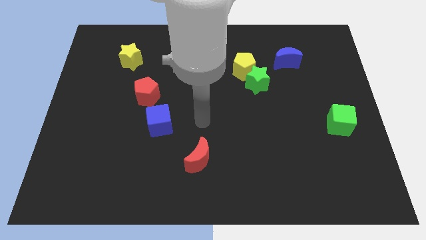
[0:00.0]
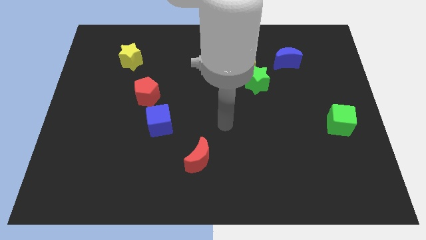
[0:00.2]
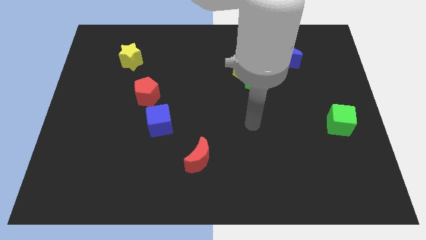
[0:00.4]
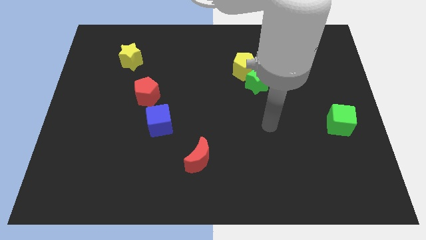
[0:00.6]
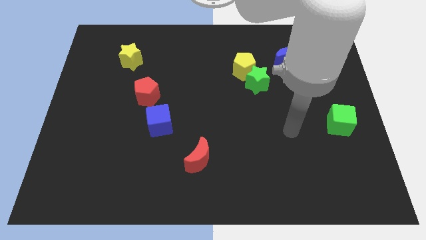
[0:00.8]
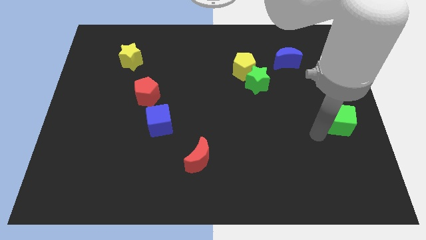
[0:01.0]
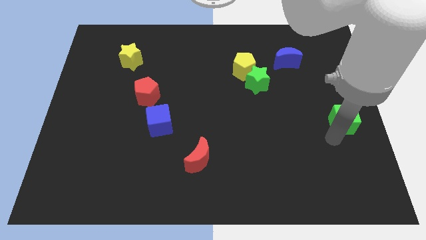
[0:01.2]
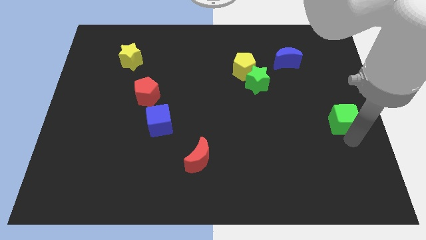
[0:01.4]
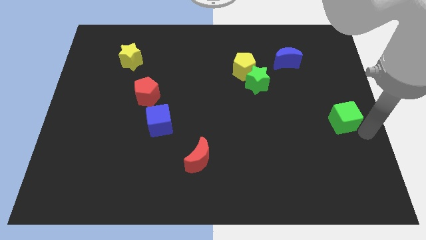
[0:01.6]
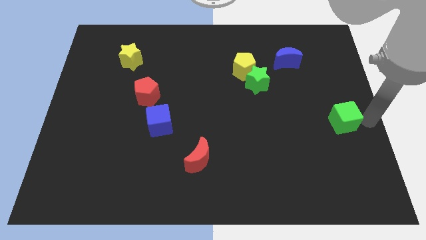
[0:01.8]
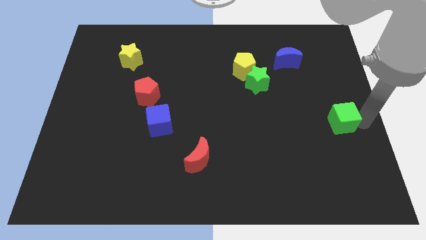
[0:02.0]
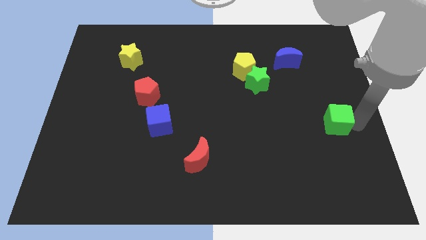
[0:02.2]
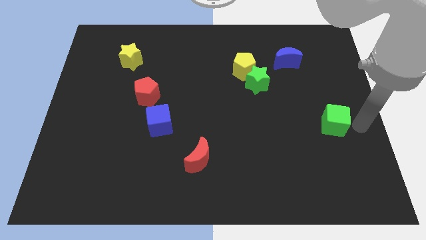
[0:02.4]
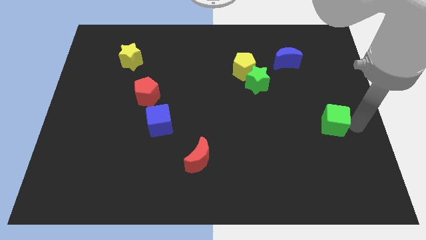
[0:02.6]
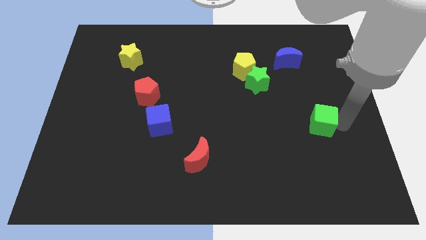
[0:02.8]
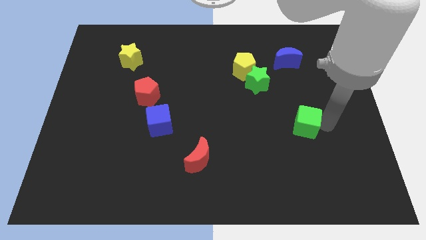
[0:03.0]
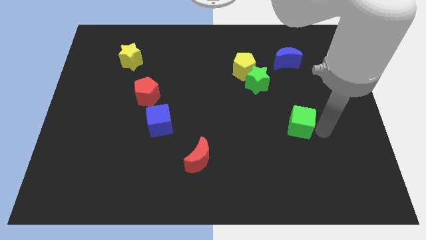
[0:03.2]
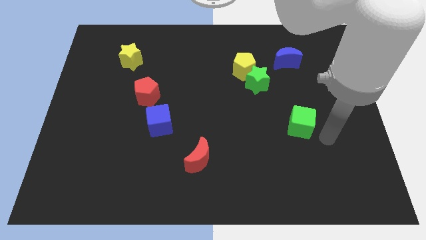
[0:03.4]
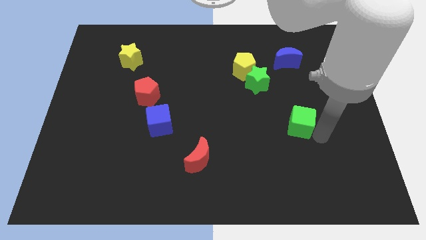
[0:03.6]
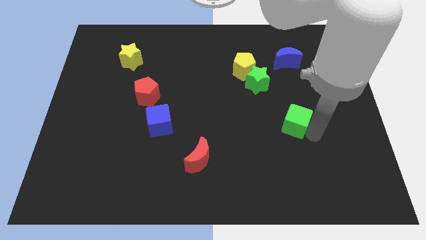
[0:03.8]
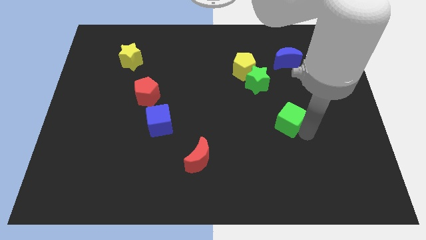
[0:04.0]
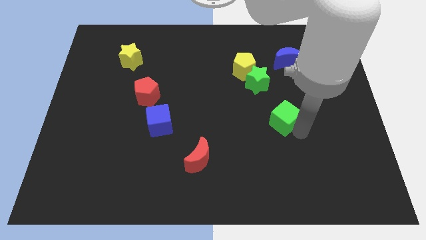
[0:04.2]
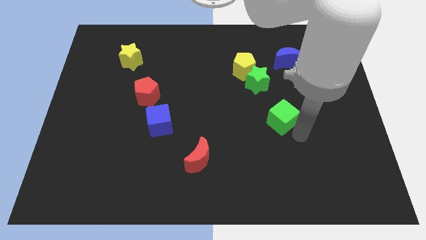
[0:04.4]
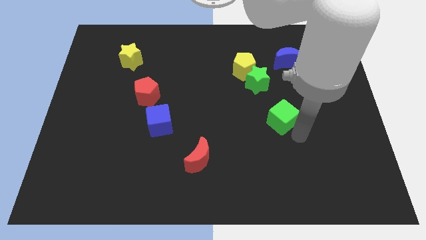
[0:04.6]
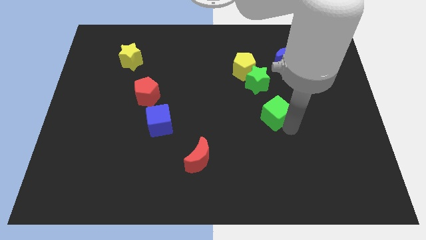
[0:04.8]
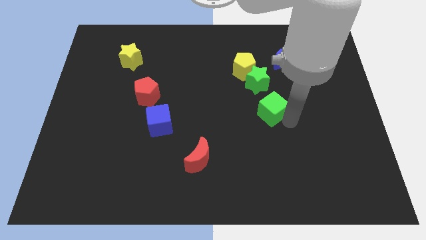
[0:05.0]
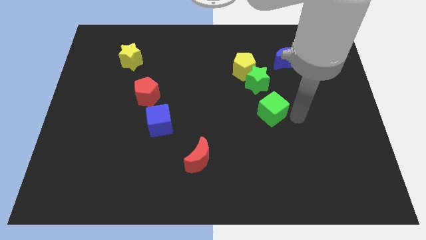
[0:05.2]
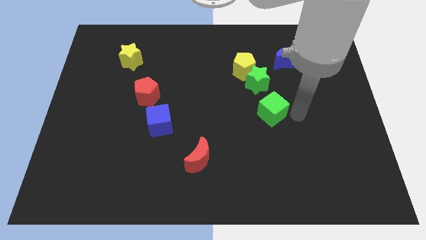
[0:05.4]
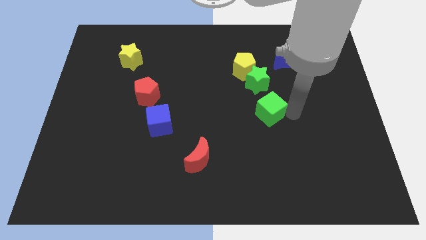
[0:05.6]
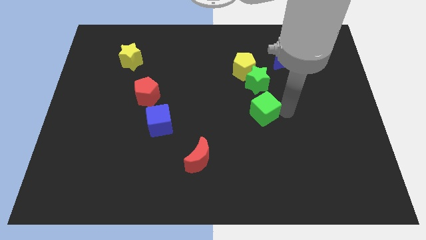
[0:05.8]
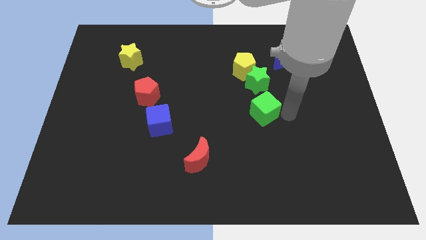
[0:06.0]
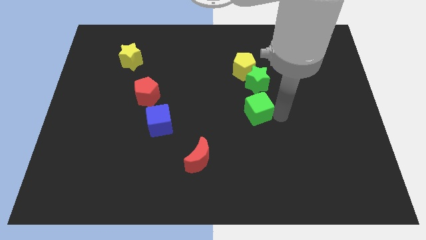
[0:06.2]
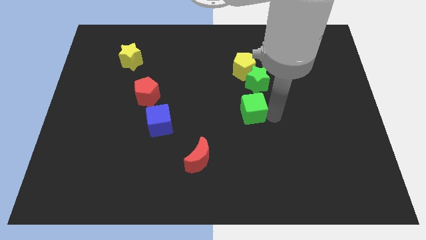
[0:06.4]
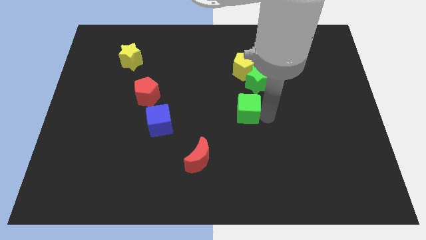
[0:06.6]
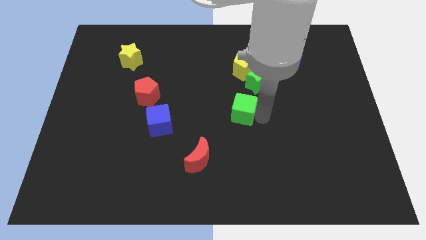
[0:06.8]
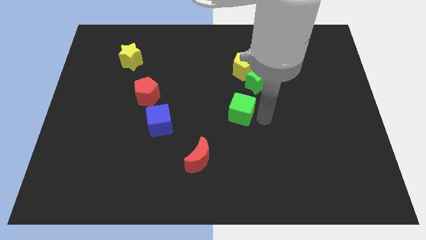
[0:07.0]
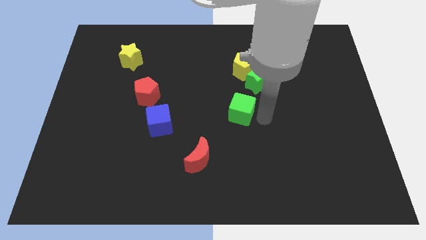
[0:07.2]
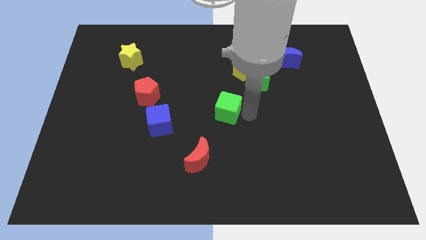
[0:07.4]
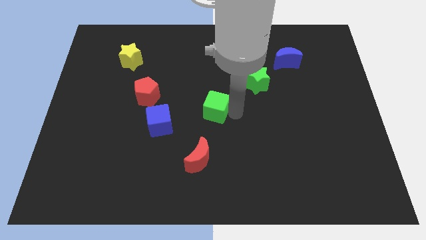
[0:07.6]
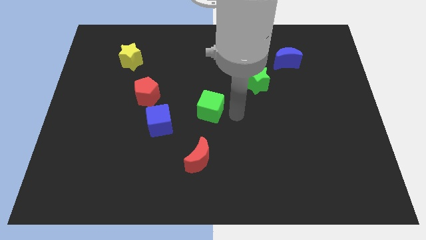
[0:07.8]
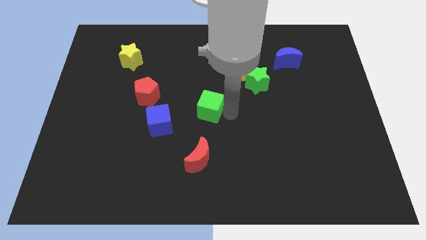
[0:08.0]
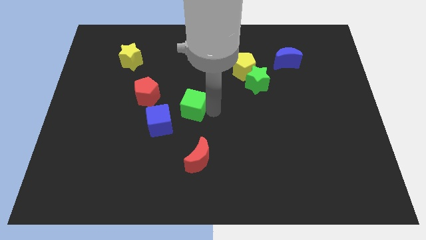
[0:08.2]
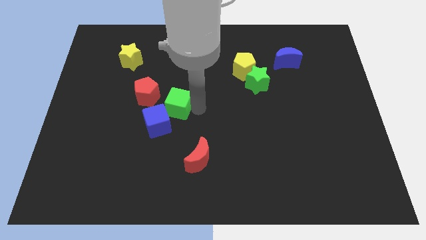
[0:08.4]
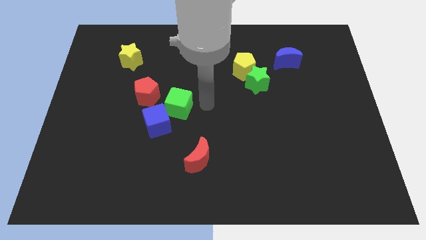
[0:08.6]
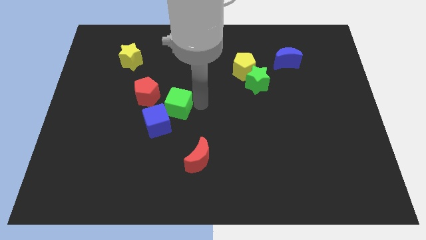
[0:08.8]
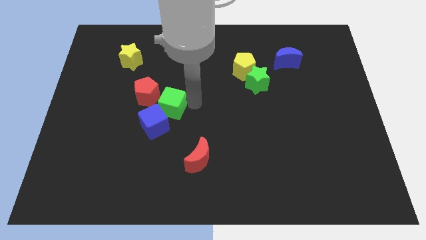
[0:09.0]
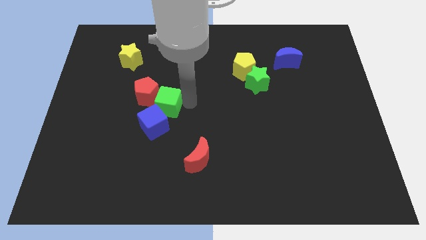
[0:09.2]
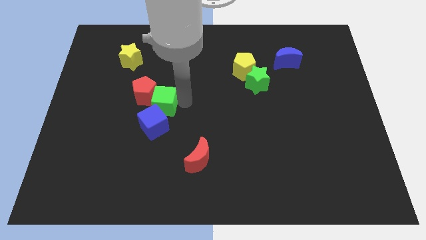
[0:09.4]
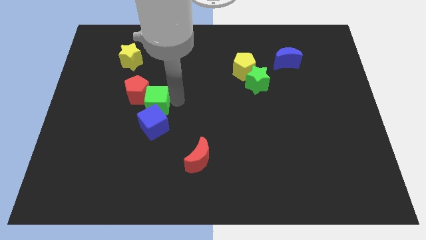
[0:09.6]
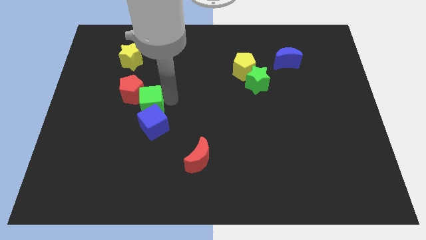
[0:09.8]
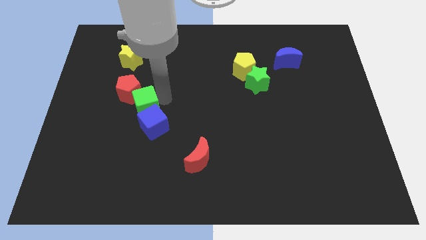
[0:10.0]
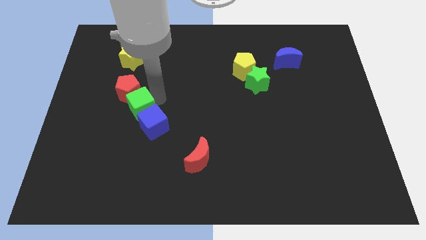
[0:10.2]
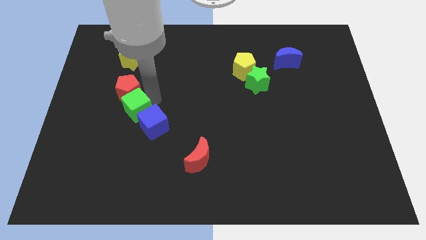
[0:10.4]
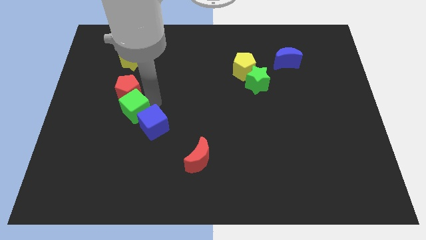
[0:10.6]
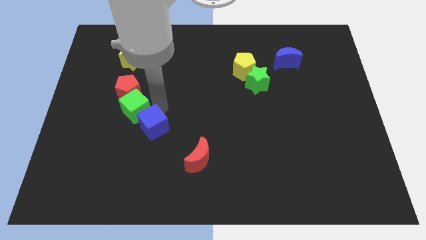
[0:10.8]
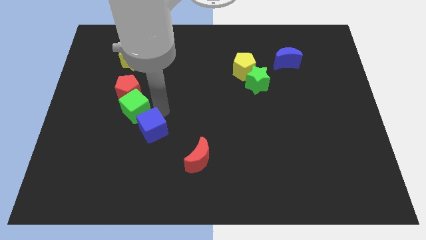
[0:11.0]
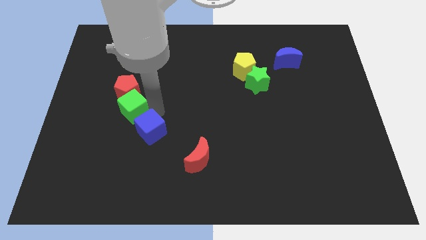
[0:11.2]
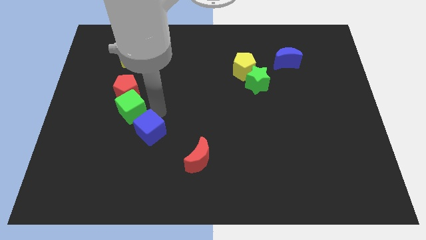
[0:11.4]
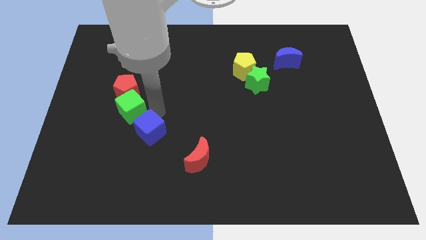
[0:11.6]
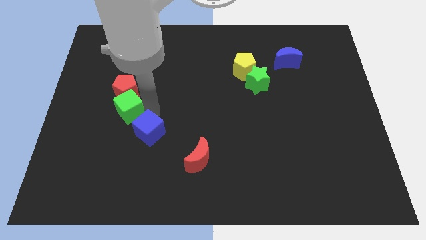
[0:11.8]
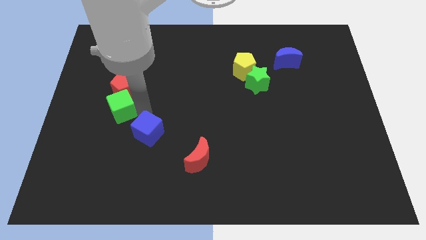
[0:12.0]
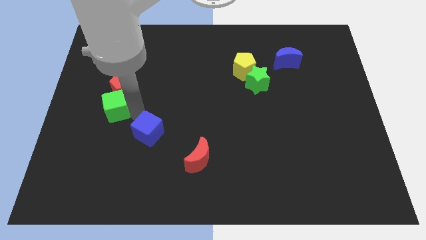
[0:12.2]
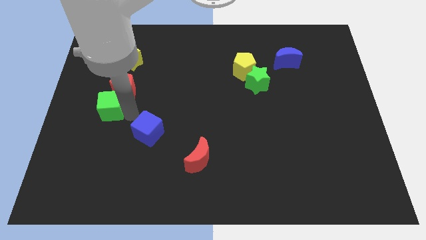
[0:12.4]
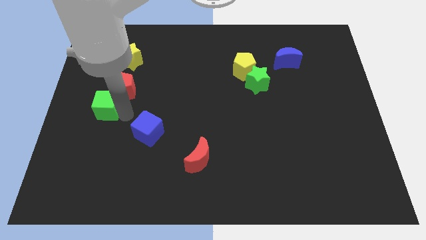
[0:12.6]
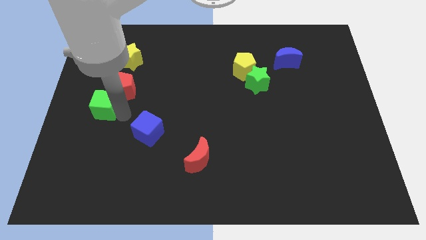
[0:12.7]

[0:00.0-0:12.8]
slide the green cube to the left side
